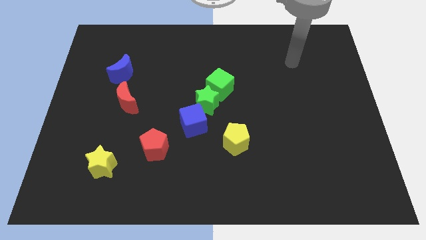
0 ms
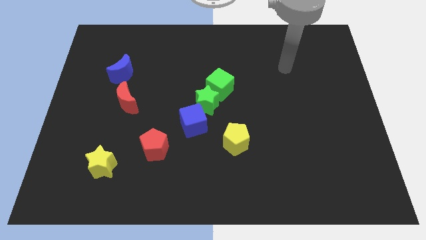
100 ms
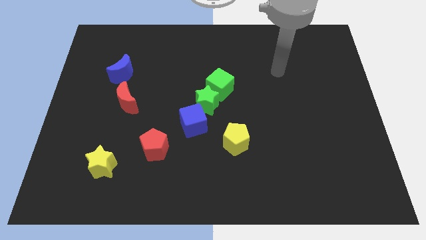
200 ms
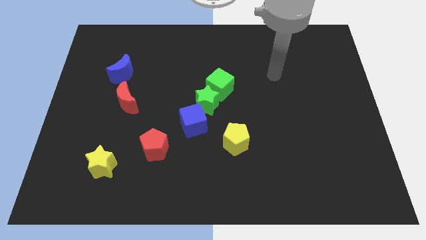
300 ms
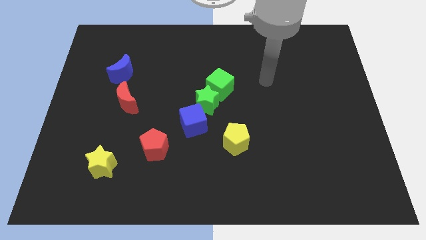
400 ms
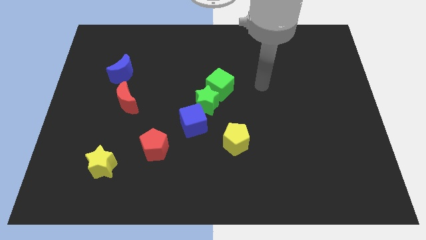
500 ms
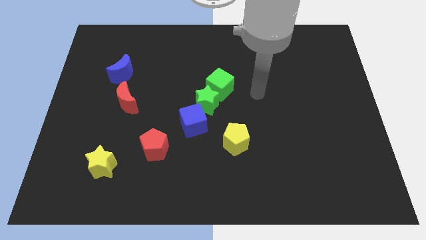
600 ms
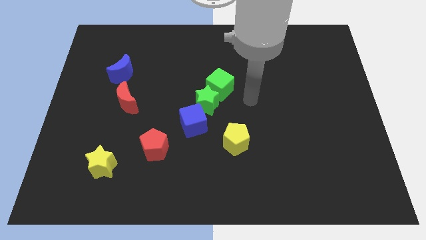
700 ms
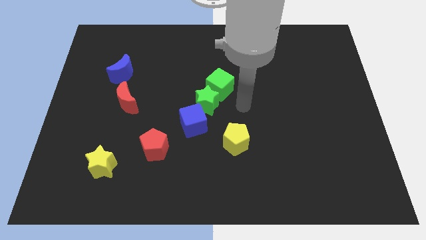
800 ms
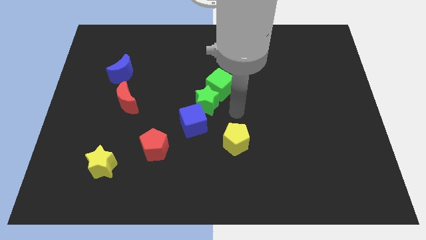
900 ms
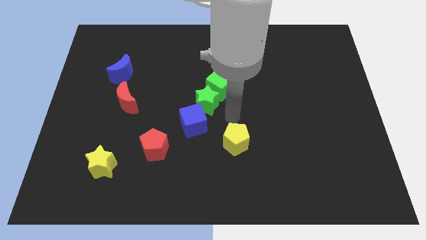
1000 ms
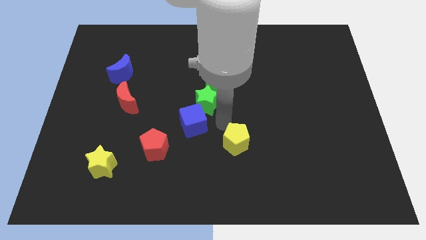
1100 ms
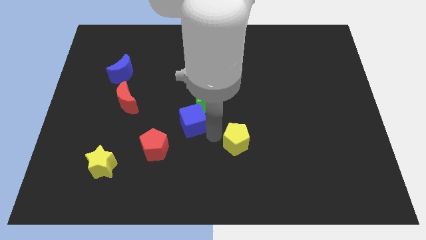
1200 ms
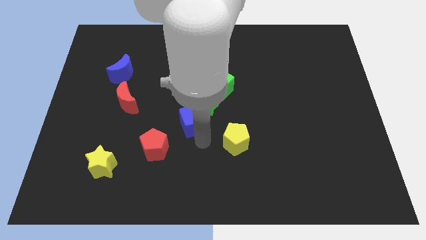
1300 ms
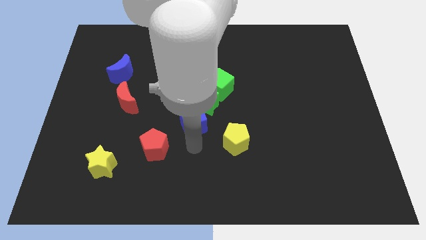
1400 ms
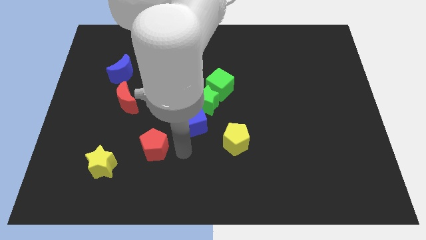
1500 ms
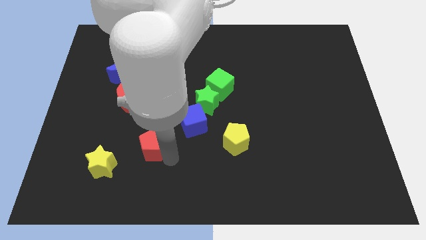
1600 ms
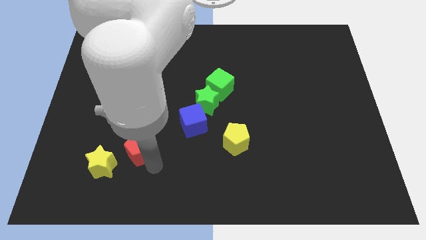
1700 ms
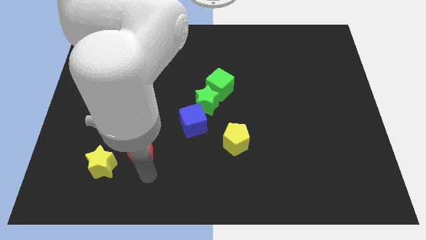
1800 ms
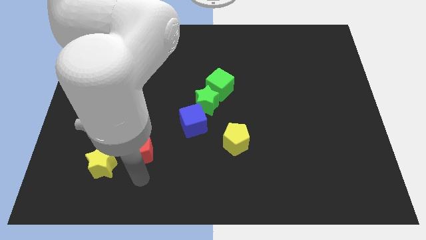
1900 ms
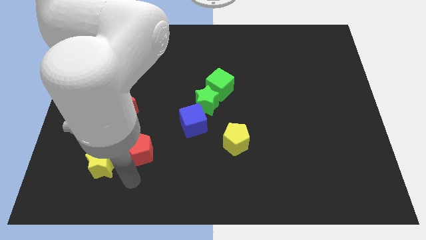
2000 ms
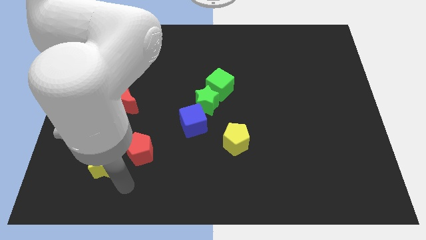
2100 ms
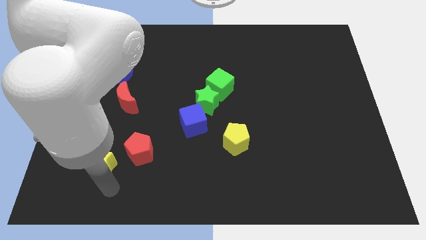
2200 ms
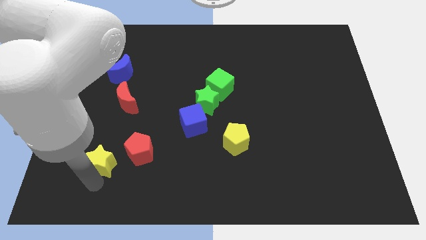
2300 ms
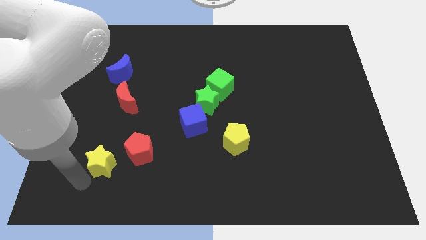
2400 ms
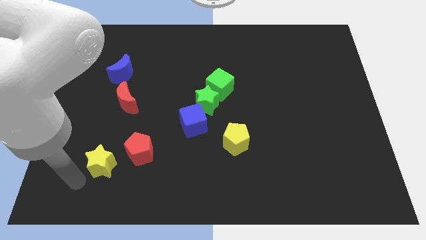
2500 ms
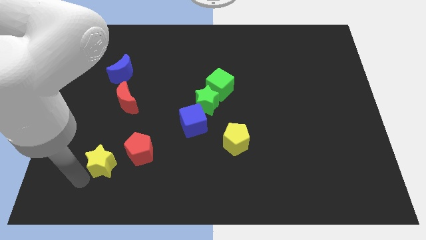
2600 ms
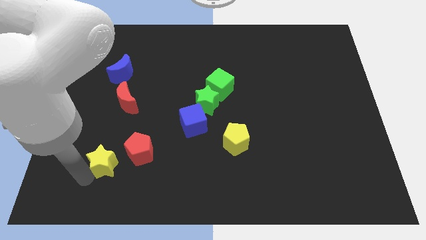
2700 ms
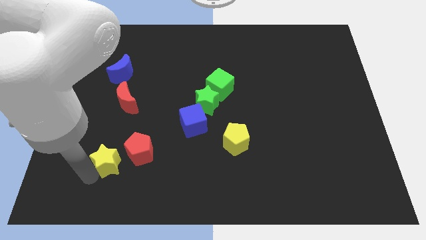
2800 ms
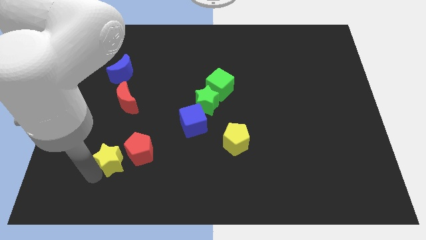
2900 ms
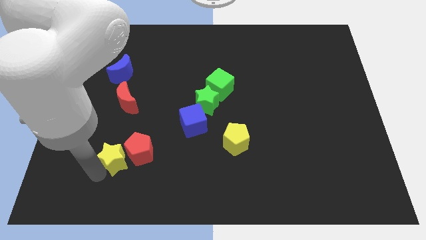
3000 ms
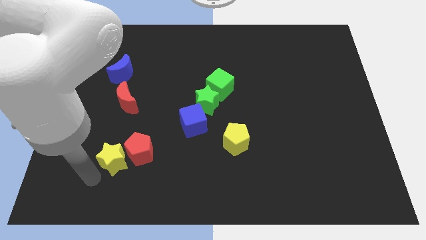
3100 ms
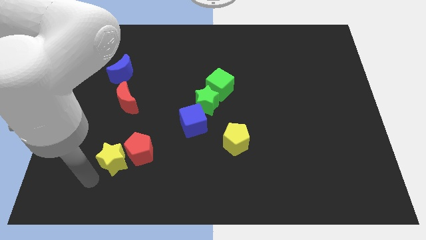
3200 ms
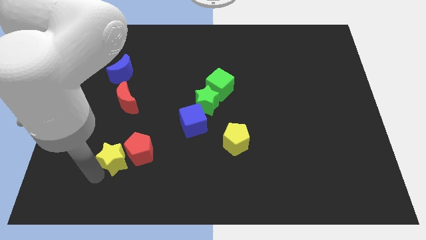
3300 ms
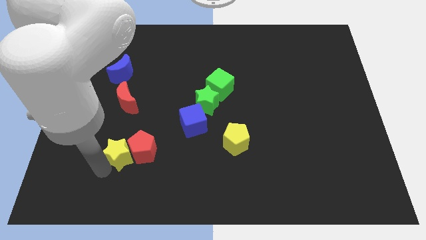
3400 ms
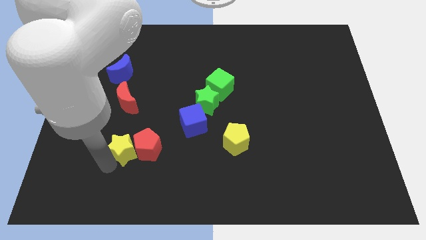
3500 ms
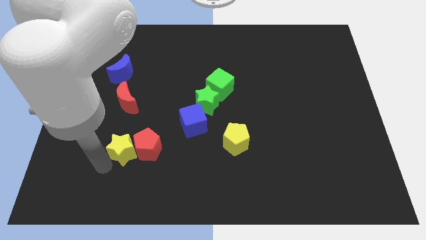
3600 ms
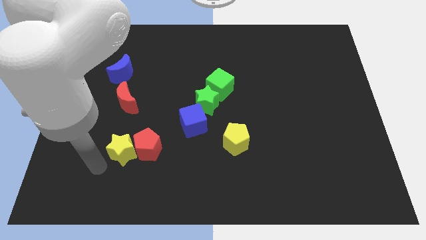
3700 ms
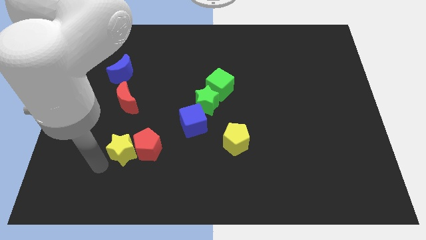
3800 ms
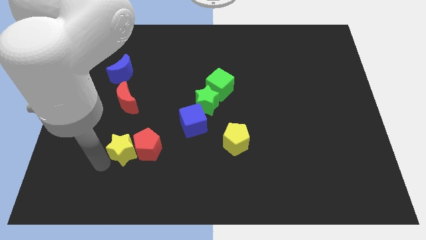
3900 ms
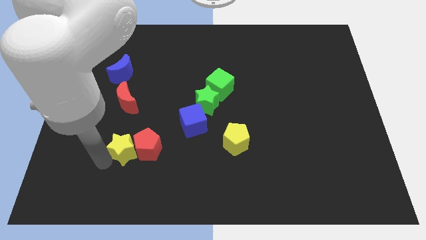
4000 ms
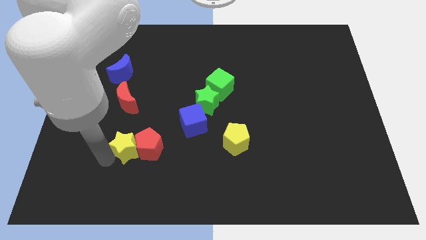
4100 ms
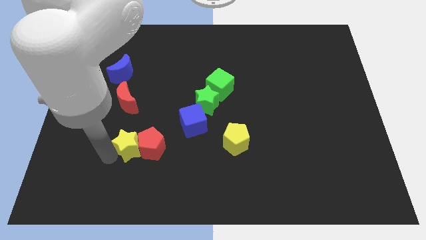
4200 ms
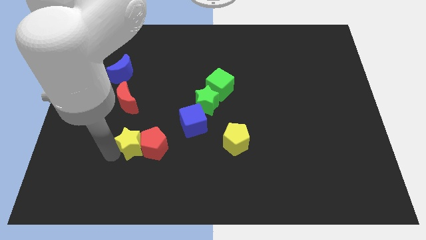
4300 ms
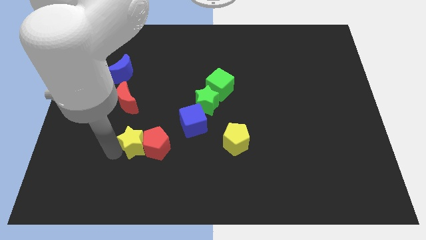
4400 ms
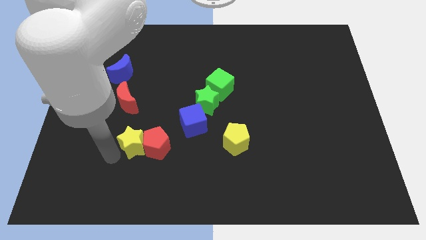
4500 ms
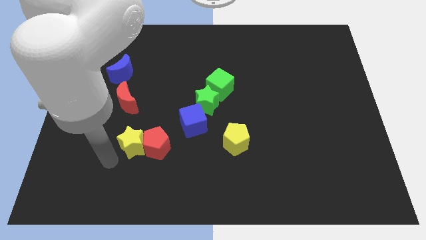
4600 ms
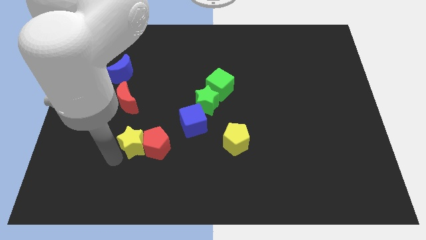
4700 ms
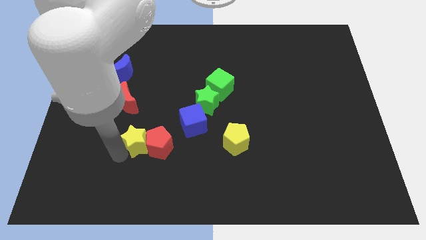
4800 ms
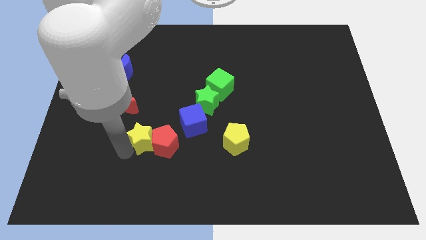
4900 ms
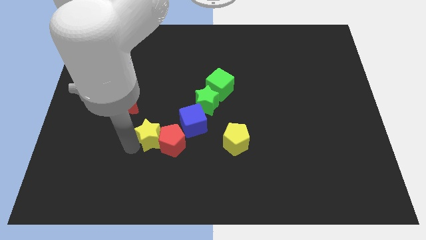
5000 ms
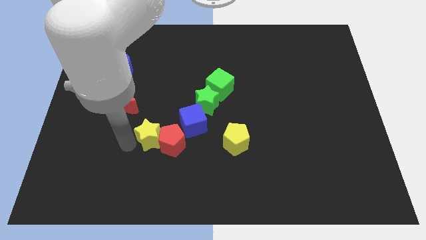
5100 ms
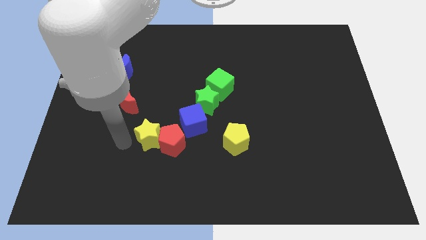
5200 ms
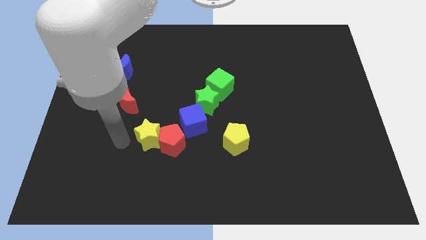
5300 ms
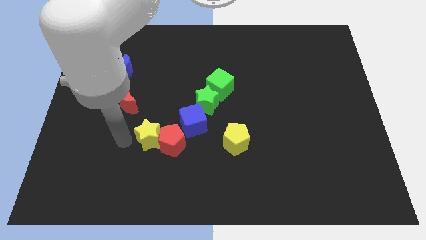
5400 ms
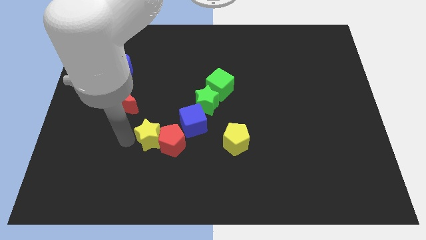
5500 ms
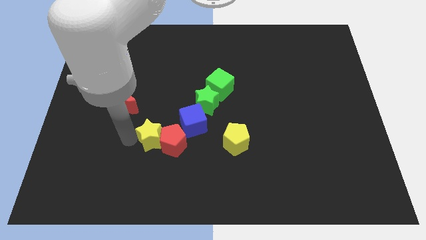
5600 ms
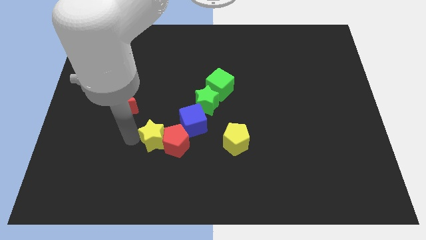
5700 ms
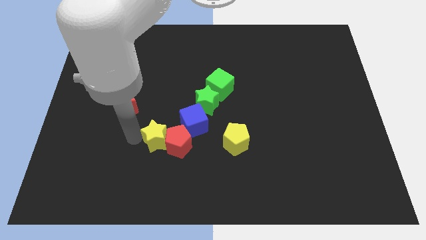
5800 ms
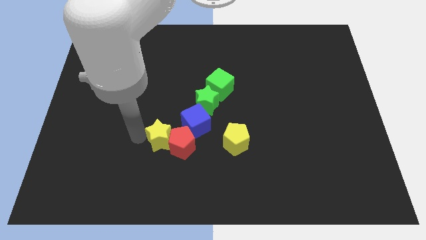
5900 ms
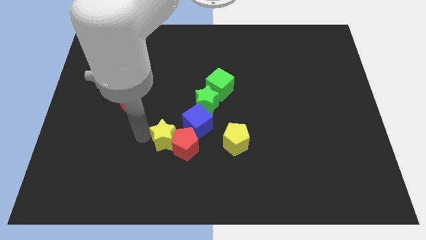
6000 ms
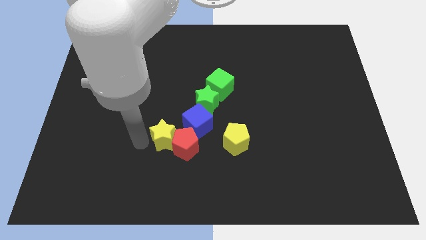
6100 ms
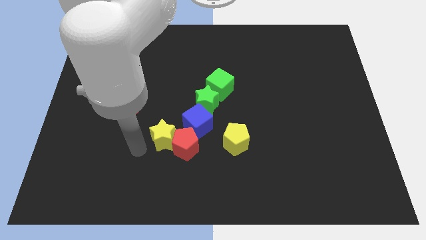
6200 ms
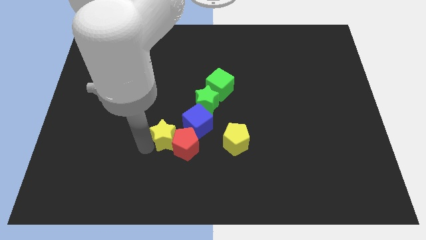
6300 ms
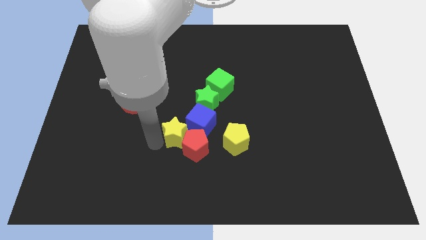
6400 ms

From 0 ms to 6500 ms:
move the yellow star close to the blue cube
